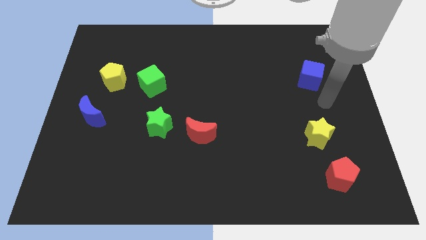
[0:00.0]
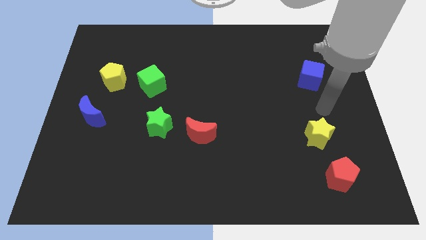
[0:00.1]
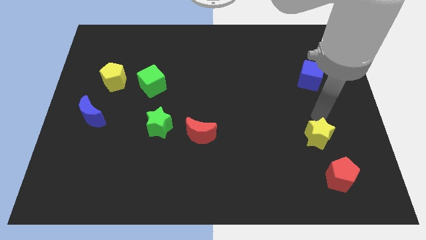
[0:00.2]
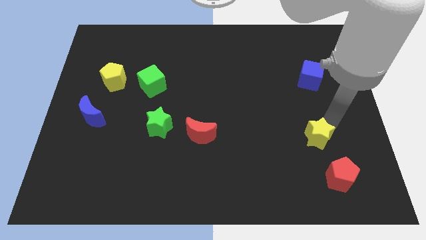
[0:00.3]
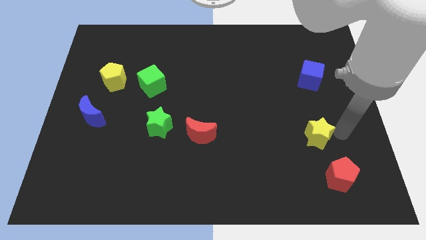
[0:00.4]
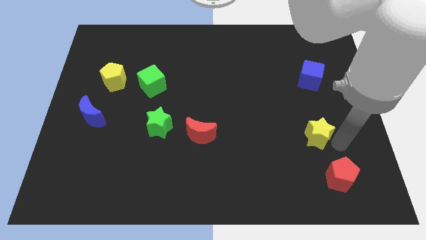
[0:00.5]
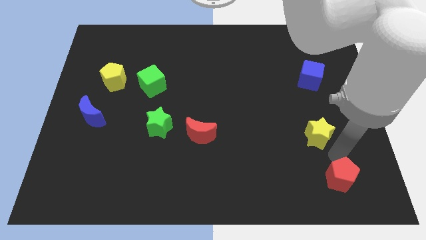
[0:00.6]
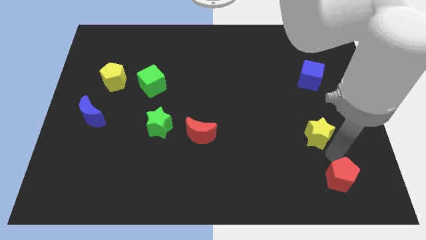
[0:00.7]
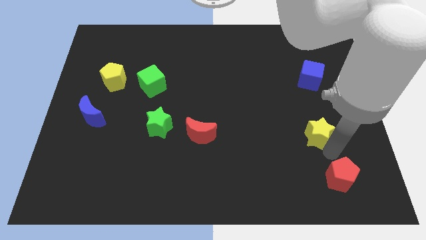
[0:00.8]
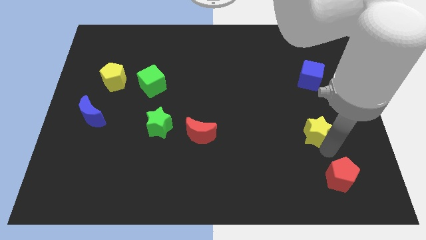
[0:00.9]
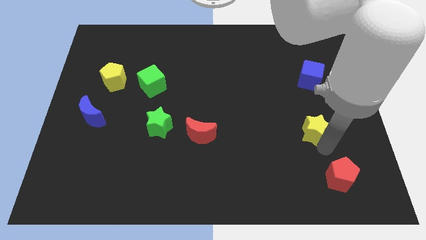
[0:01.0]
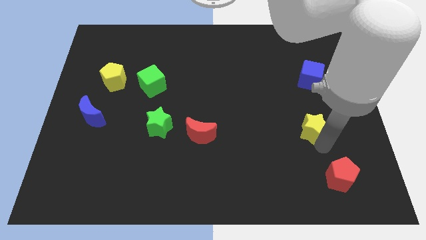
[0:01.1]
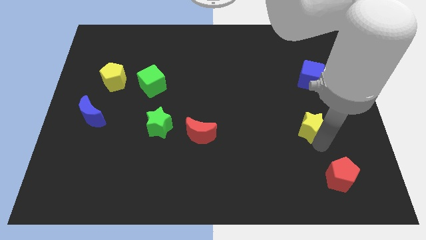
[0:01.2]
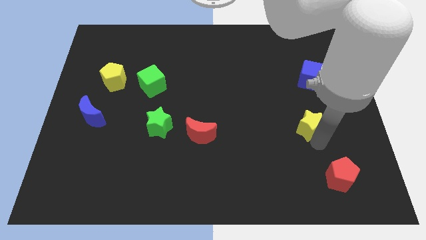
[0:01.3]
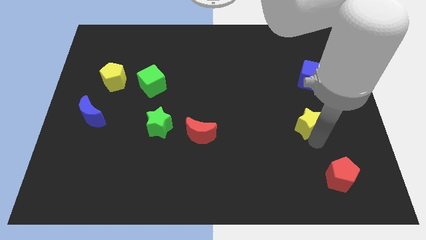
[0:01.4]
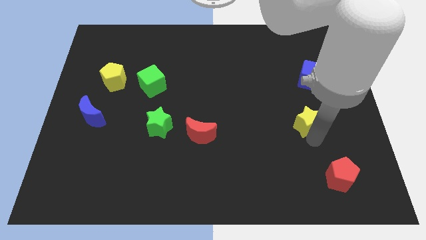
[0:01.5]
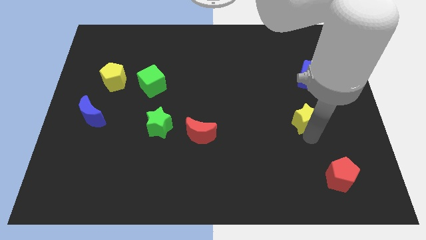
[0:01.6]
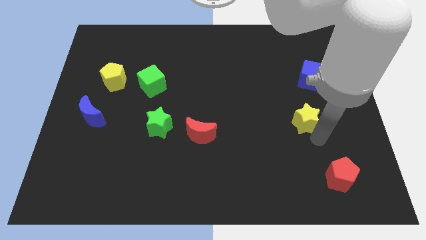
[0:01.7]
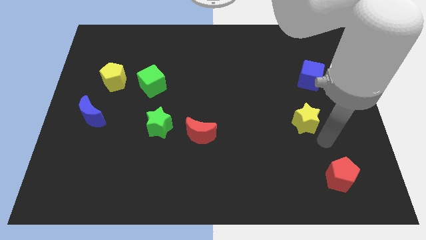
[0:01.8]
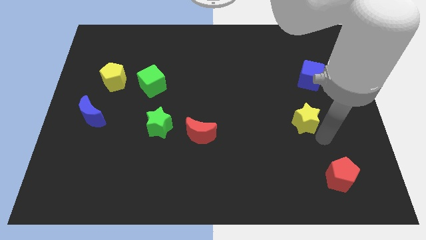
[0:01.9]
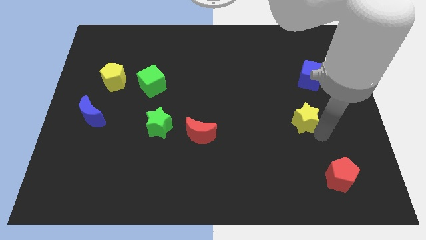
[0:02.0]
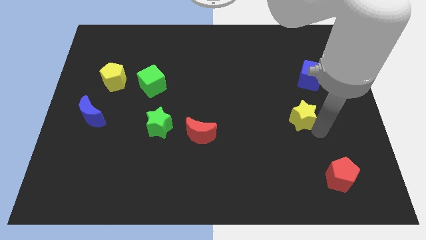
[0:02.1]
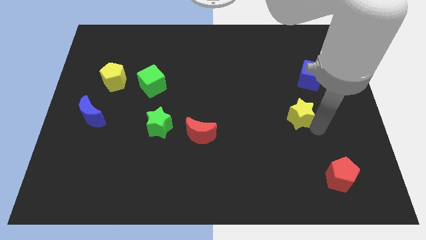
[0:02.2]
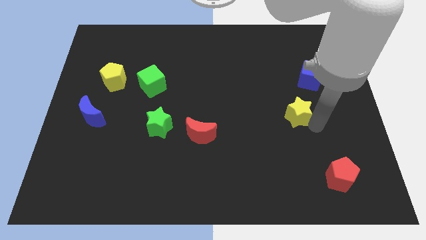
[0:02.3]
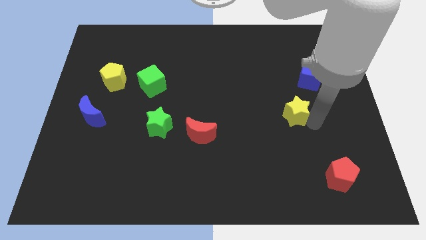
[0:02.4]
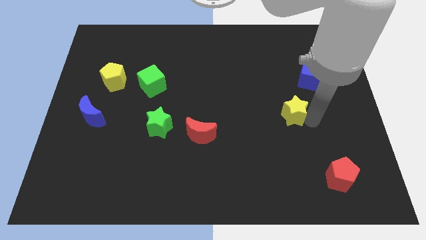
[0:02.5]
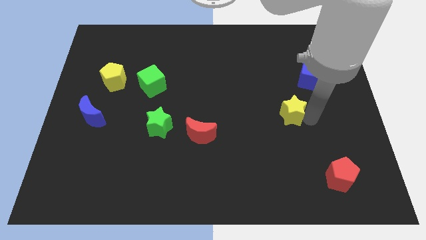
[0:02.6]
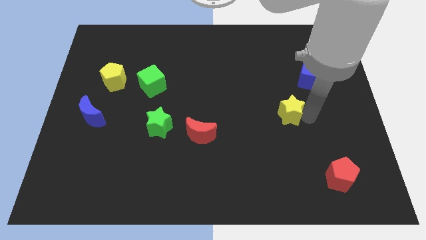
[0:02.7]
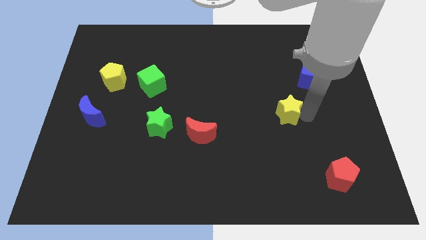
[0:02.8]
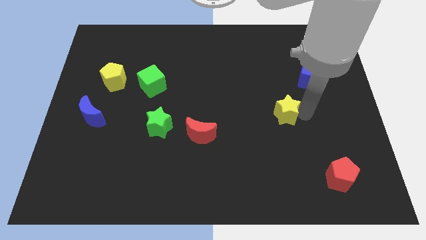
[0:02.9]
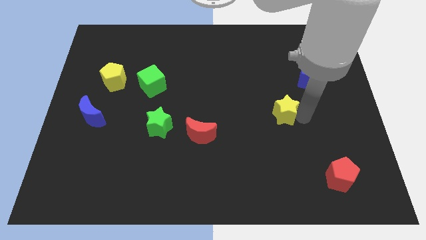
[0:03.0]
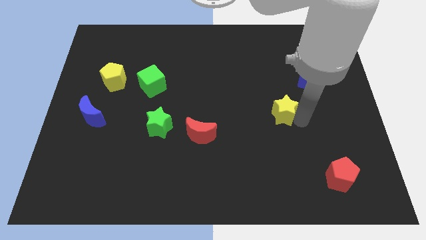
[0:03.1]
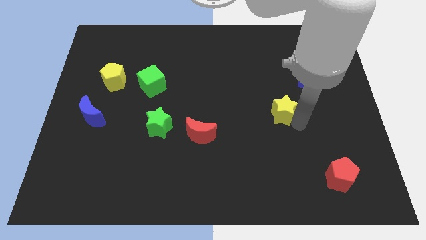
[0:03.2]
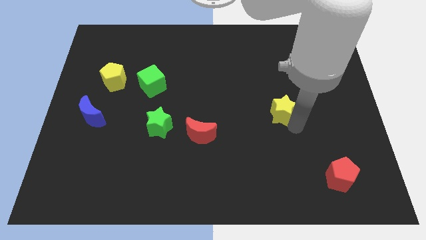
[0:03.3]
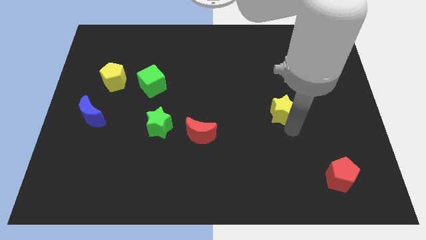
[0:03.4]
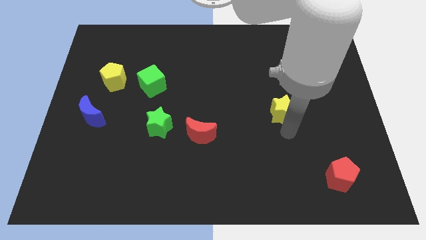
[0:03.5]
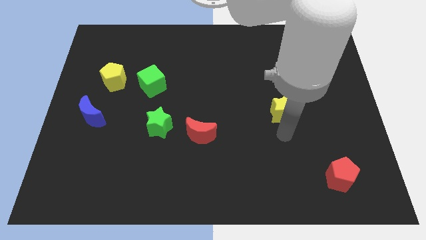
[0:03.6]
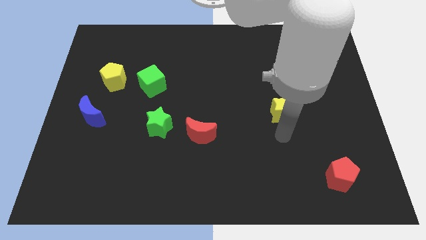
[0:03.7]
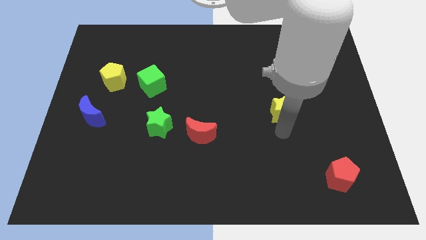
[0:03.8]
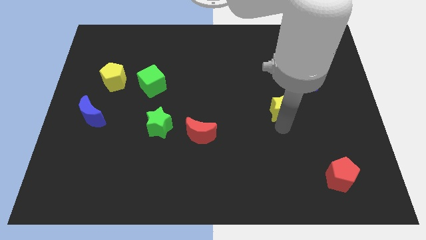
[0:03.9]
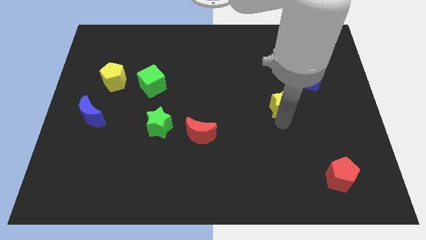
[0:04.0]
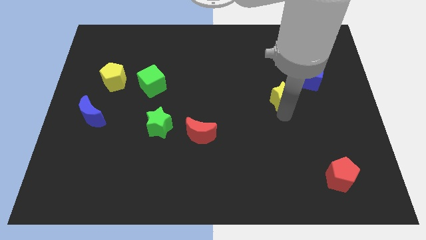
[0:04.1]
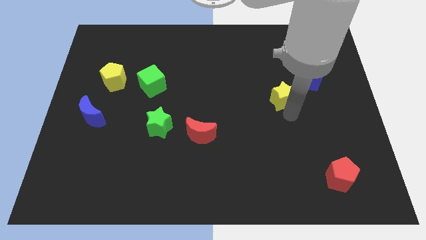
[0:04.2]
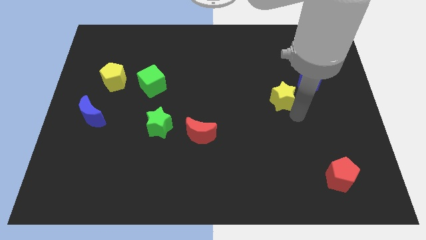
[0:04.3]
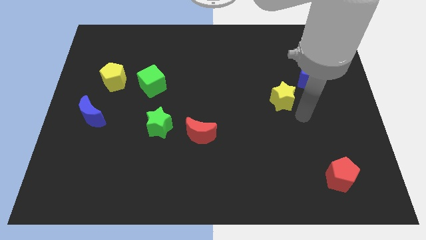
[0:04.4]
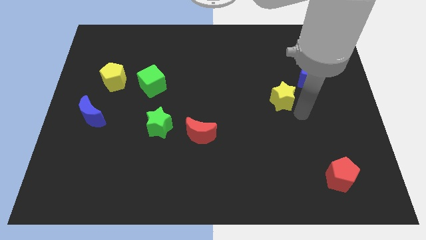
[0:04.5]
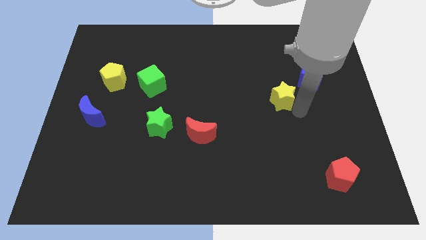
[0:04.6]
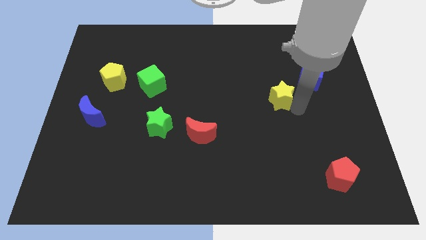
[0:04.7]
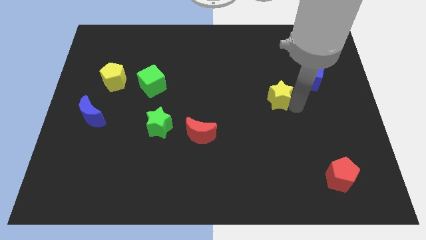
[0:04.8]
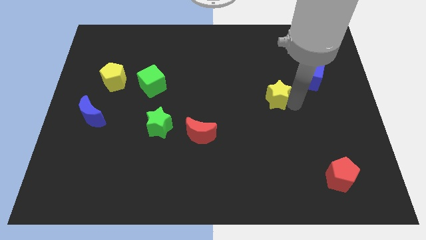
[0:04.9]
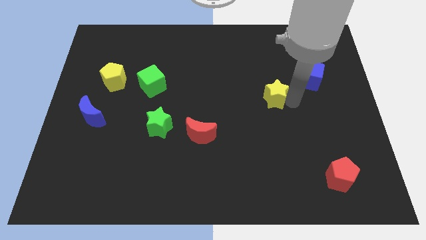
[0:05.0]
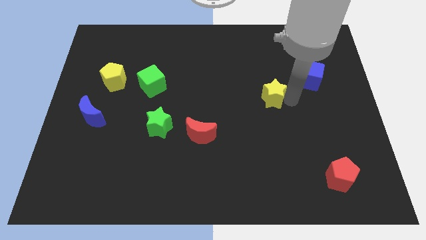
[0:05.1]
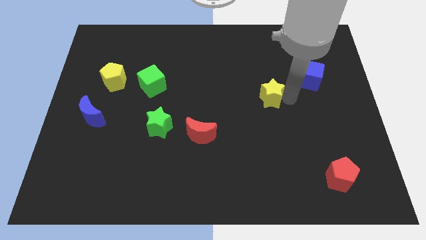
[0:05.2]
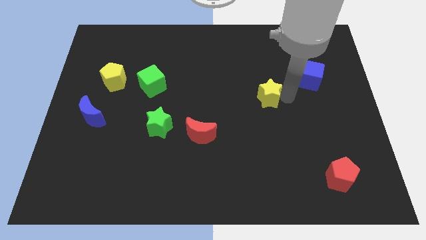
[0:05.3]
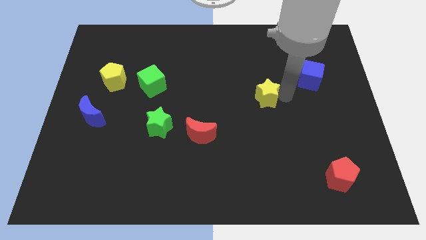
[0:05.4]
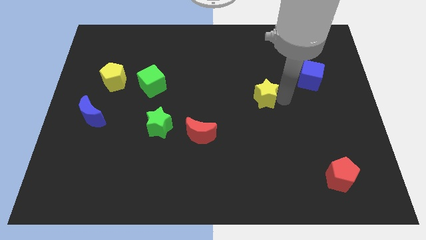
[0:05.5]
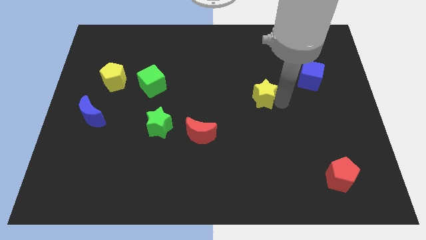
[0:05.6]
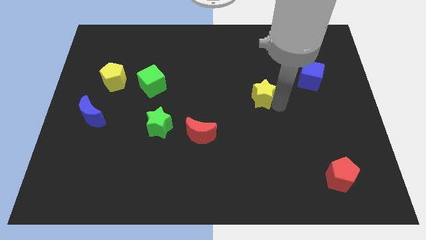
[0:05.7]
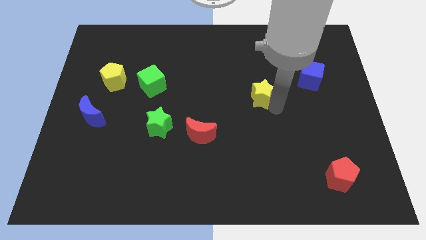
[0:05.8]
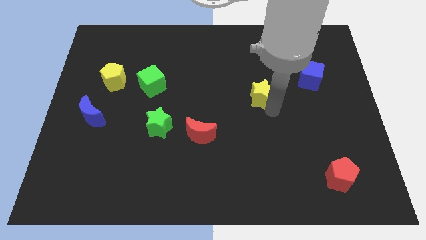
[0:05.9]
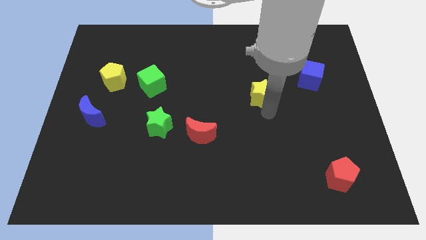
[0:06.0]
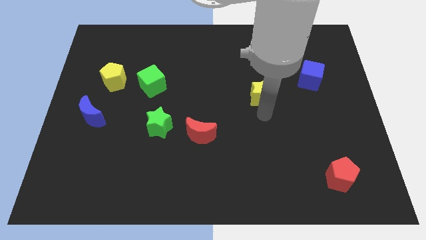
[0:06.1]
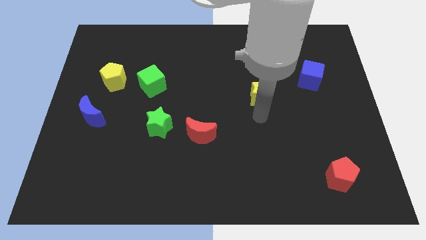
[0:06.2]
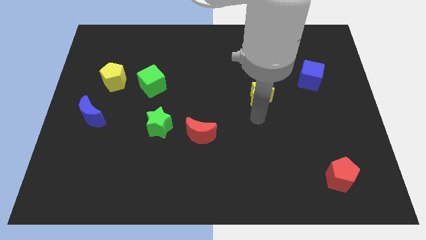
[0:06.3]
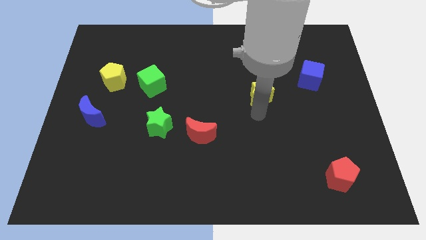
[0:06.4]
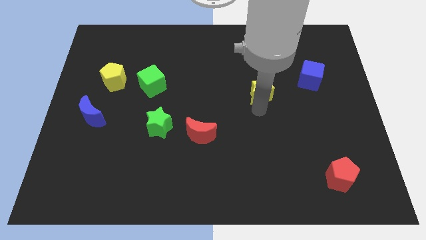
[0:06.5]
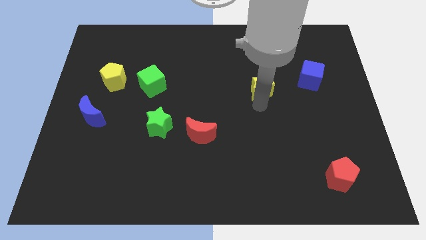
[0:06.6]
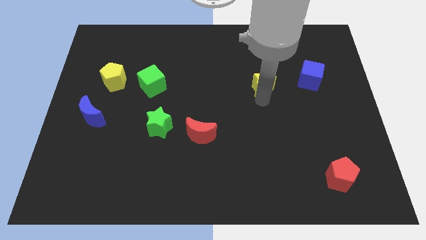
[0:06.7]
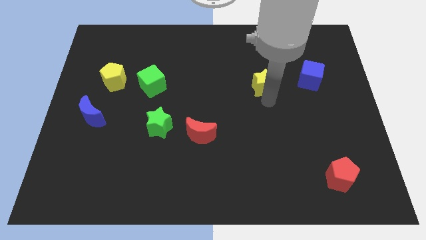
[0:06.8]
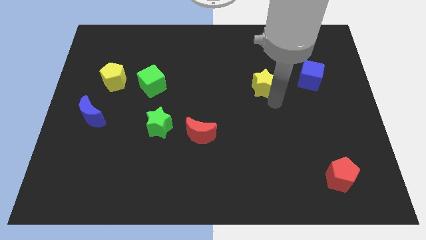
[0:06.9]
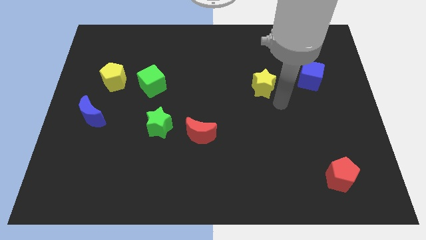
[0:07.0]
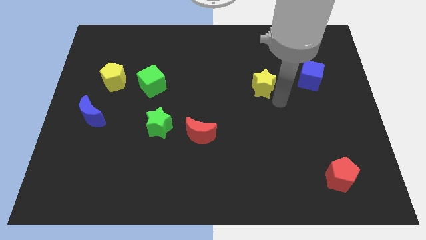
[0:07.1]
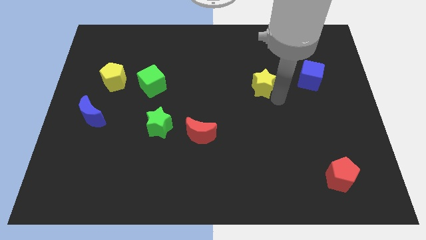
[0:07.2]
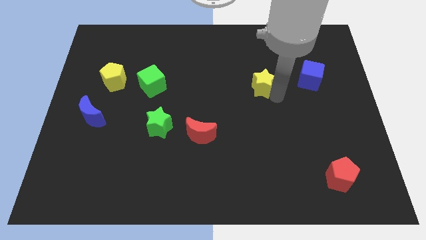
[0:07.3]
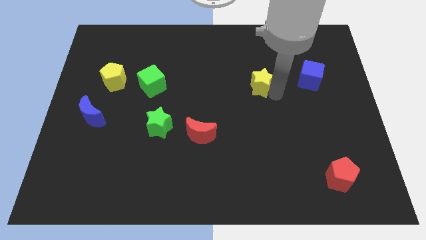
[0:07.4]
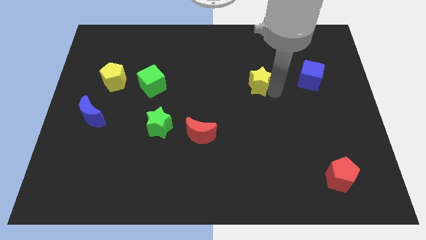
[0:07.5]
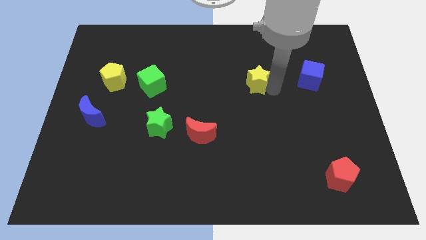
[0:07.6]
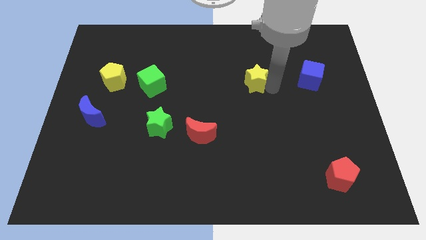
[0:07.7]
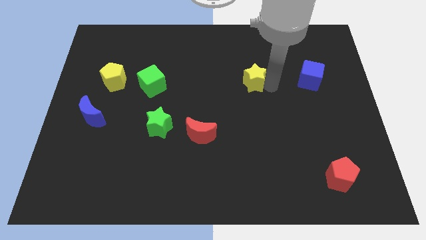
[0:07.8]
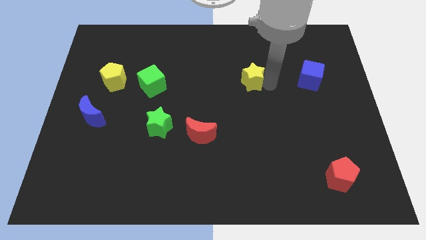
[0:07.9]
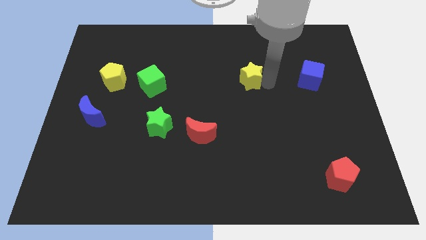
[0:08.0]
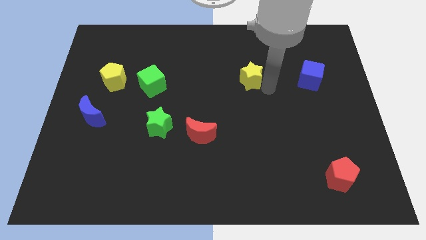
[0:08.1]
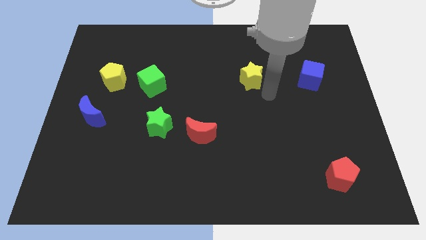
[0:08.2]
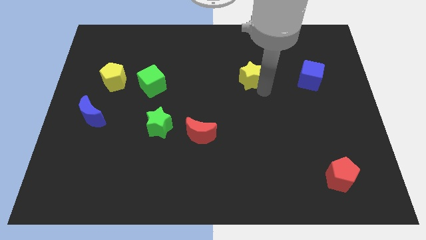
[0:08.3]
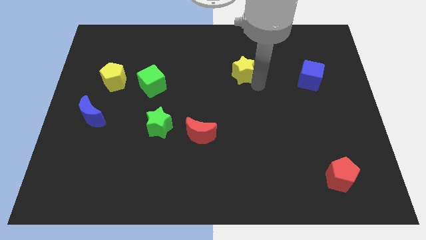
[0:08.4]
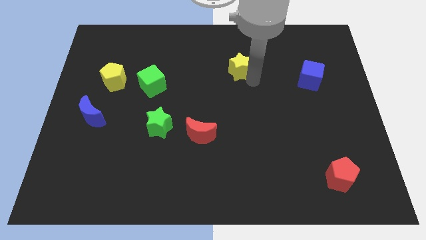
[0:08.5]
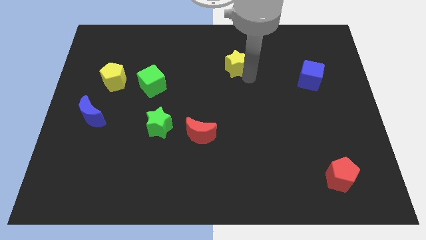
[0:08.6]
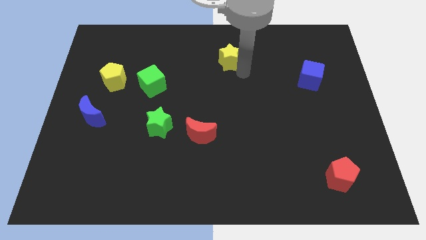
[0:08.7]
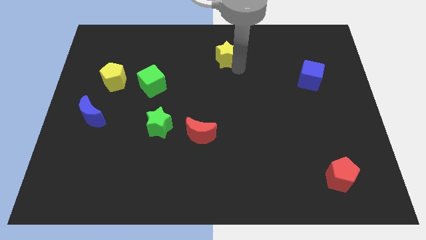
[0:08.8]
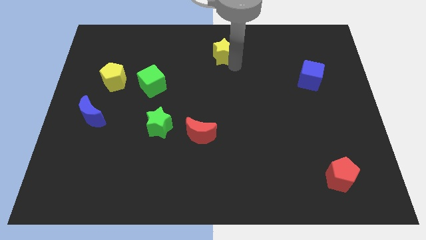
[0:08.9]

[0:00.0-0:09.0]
move the yellow star to the towards your base
